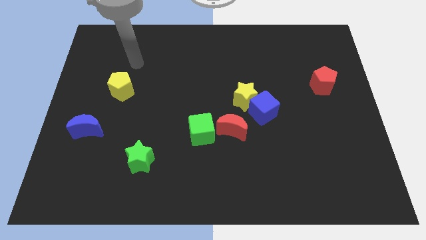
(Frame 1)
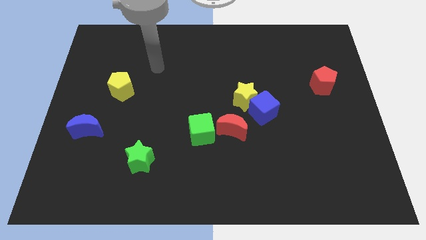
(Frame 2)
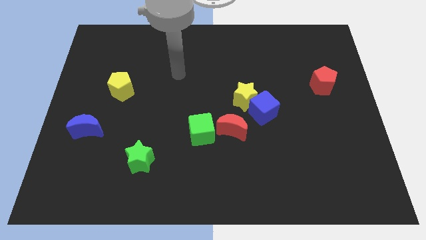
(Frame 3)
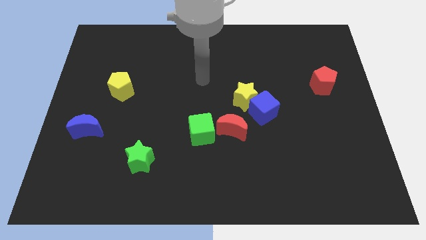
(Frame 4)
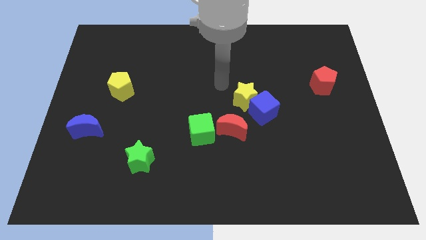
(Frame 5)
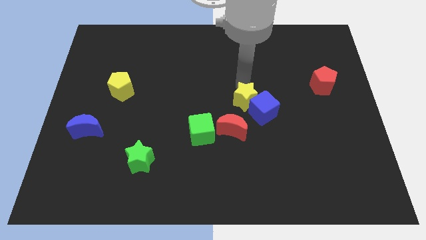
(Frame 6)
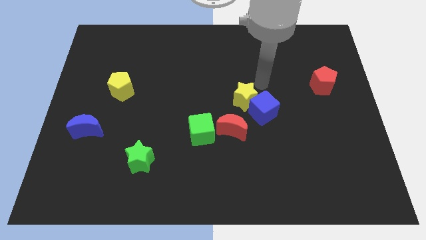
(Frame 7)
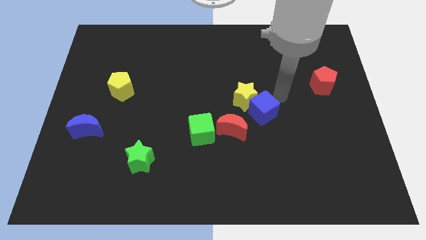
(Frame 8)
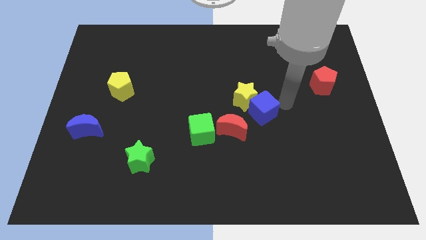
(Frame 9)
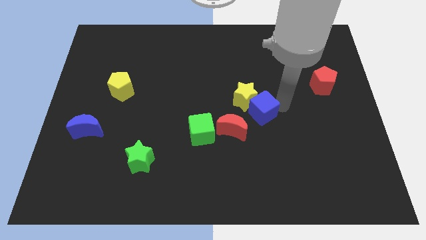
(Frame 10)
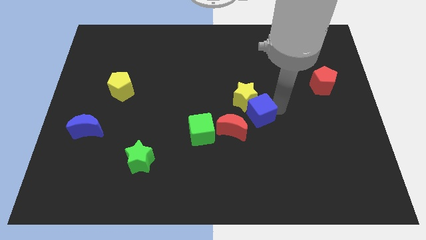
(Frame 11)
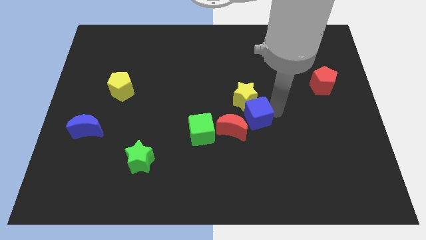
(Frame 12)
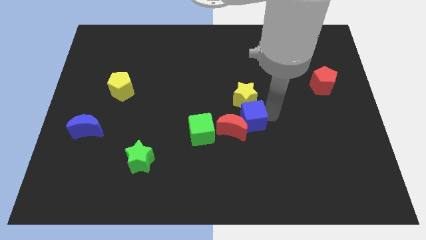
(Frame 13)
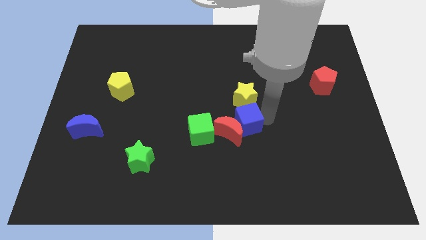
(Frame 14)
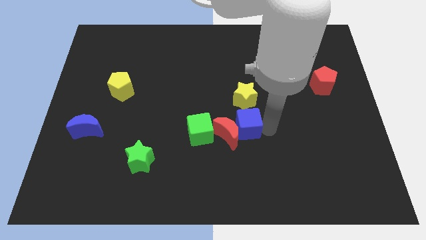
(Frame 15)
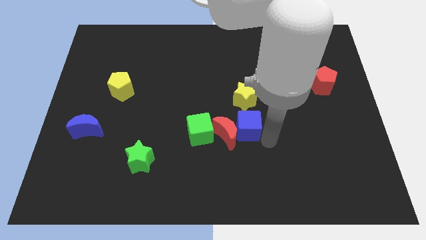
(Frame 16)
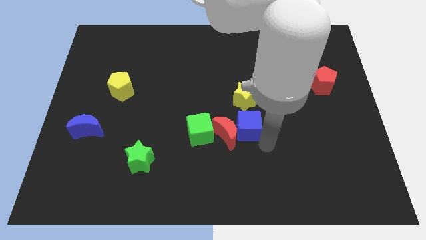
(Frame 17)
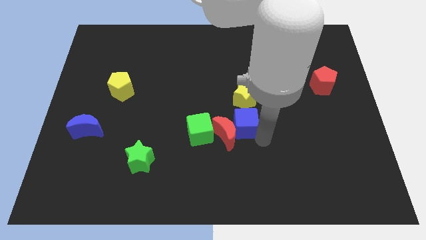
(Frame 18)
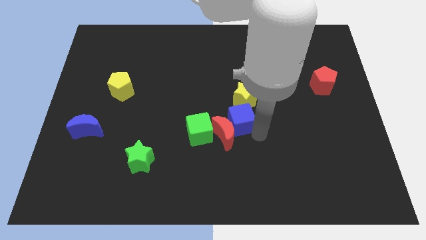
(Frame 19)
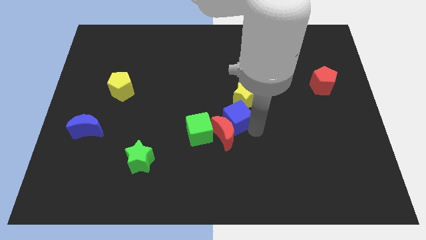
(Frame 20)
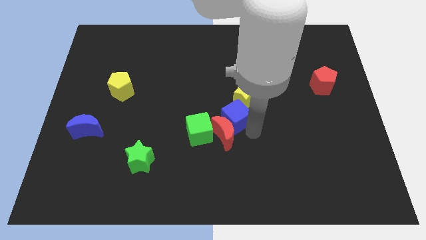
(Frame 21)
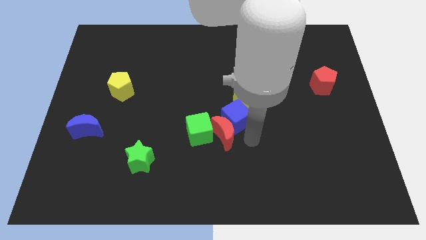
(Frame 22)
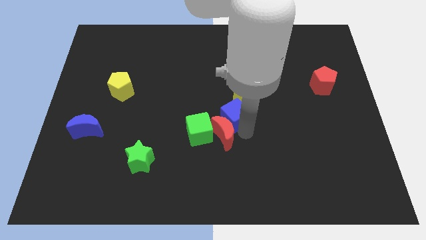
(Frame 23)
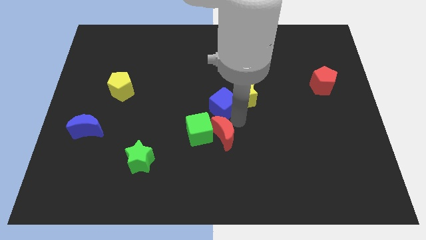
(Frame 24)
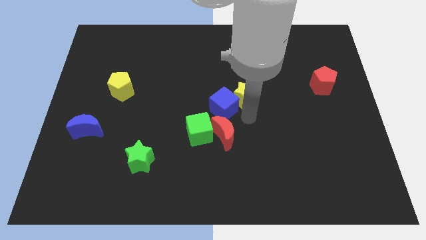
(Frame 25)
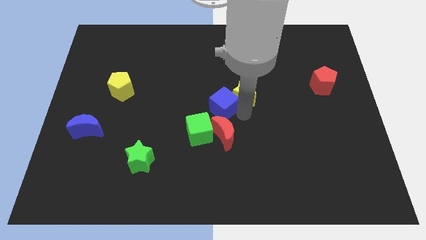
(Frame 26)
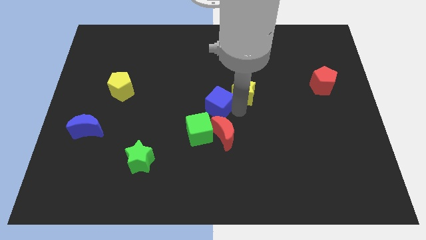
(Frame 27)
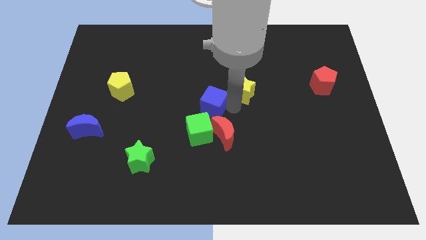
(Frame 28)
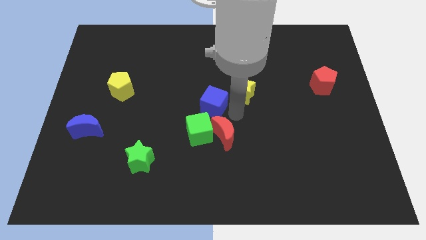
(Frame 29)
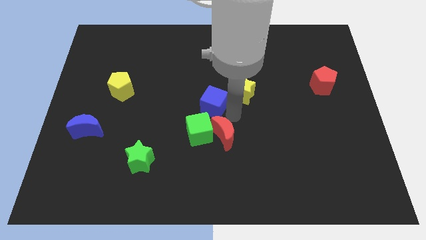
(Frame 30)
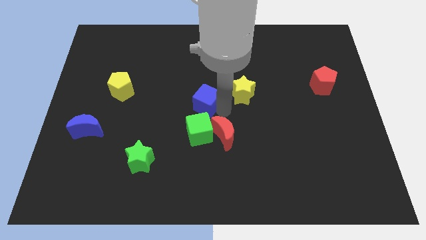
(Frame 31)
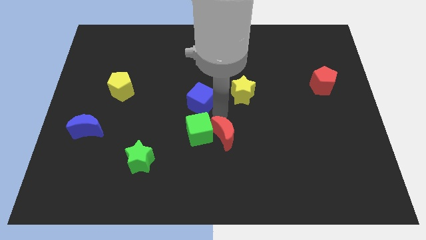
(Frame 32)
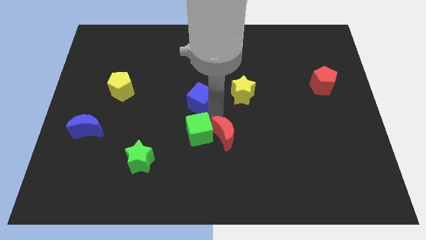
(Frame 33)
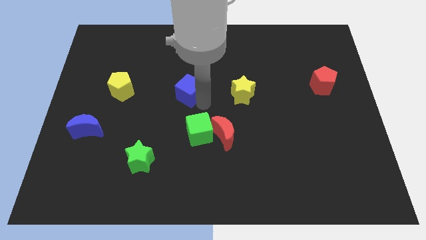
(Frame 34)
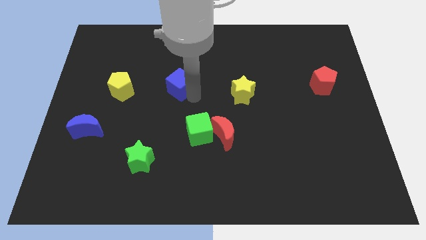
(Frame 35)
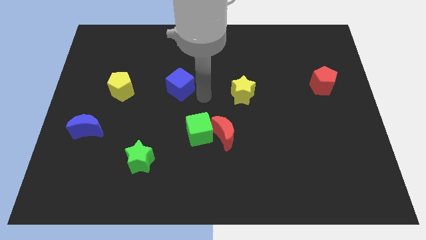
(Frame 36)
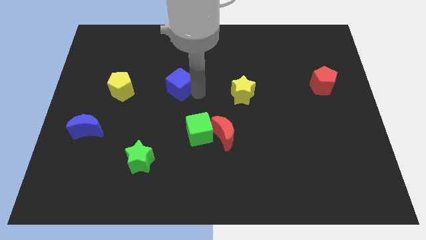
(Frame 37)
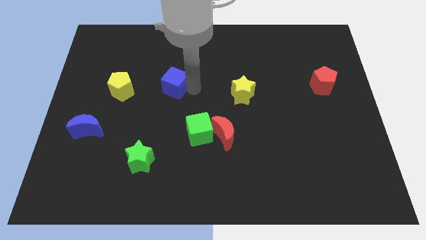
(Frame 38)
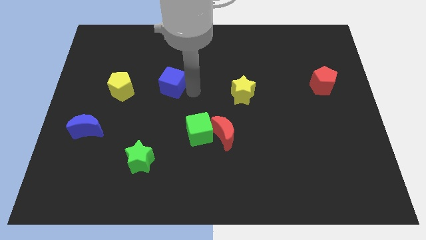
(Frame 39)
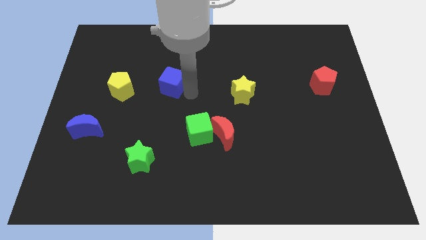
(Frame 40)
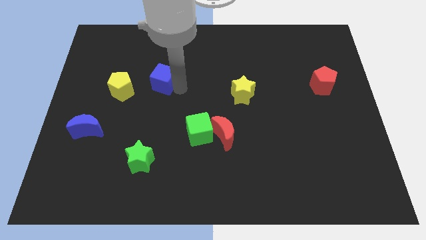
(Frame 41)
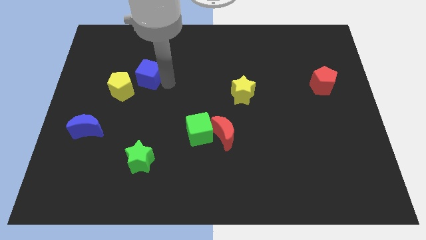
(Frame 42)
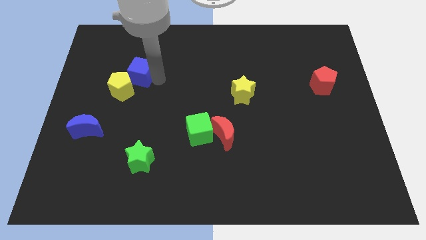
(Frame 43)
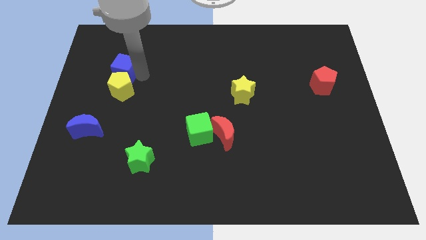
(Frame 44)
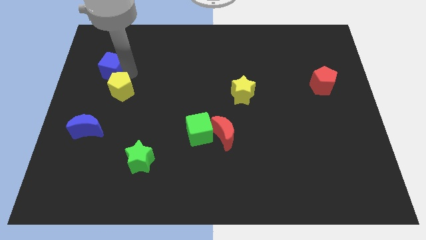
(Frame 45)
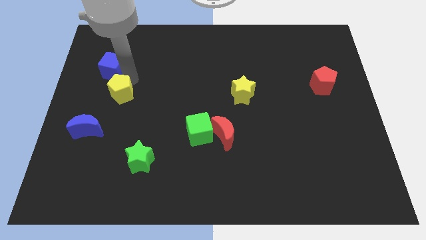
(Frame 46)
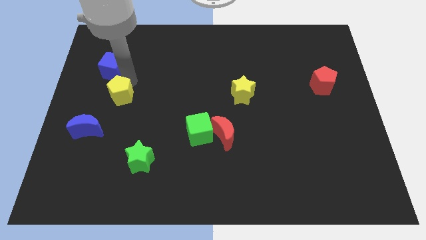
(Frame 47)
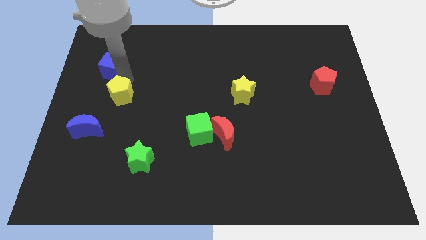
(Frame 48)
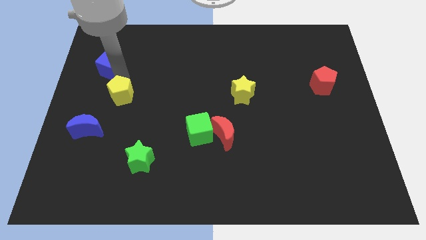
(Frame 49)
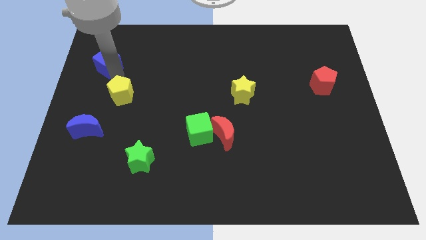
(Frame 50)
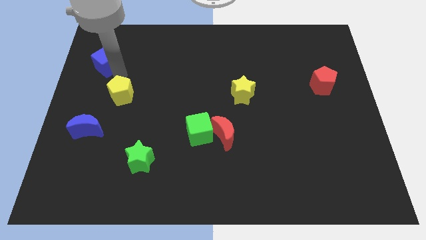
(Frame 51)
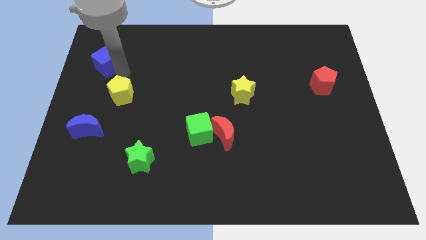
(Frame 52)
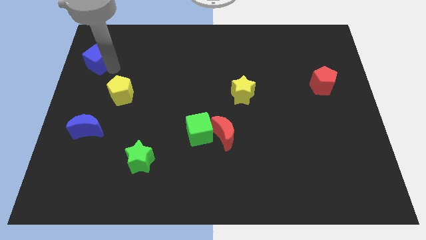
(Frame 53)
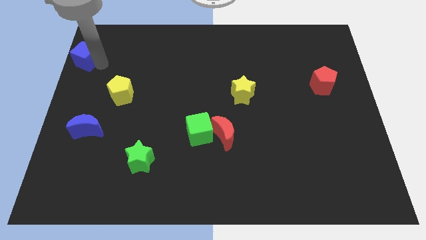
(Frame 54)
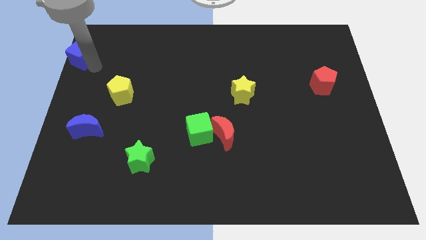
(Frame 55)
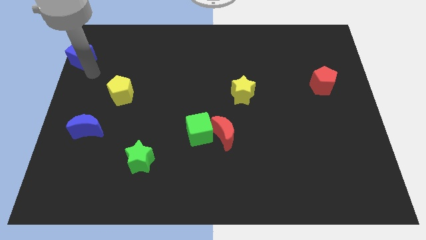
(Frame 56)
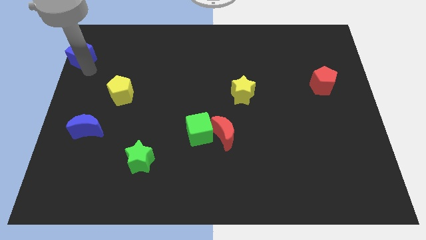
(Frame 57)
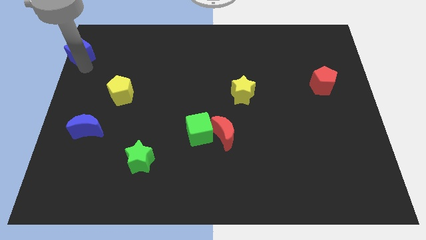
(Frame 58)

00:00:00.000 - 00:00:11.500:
slide the blue cube to the top left corner
